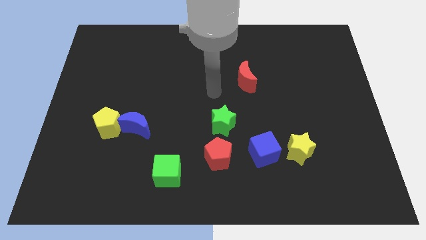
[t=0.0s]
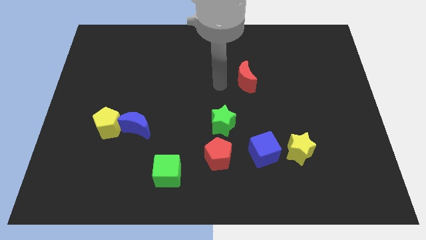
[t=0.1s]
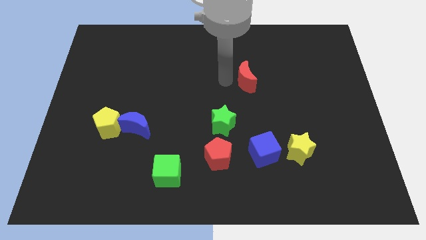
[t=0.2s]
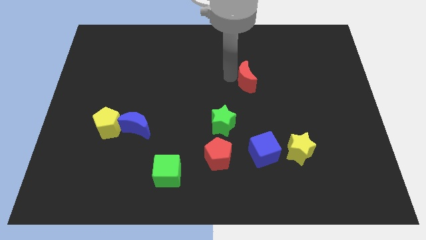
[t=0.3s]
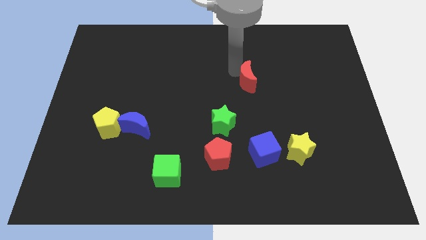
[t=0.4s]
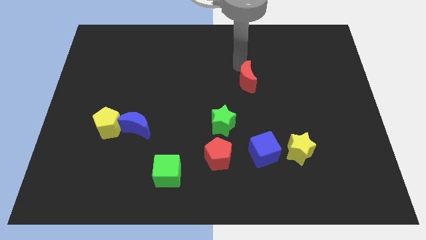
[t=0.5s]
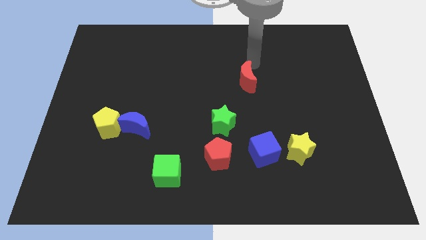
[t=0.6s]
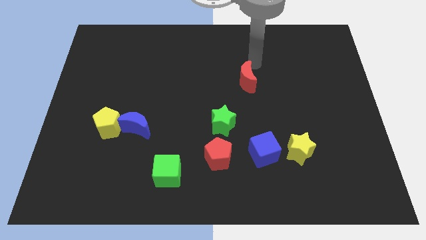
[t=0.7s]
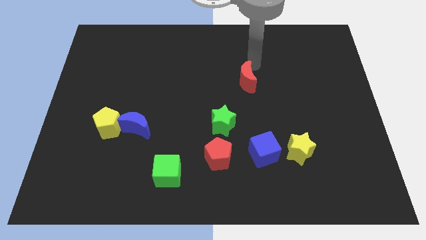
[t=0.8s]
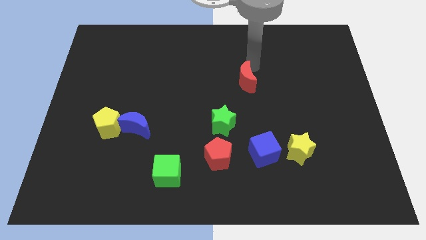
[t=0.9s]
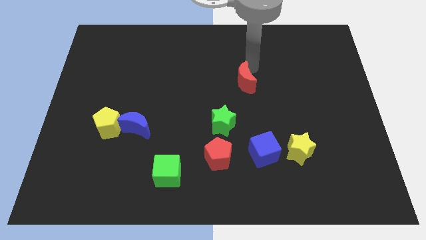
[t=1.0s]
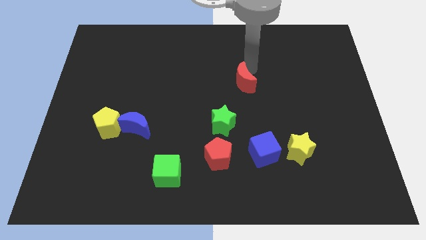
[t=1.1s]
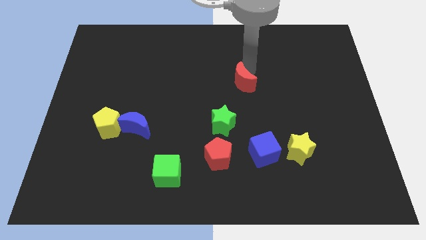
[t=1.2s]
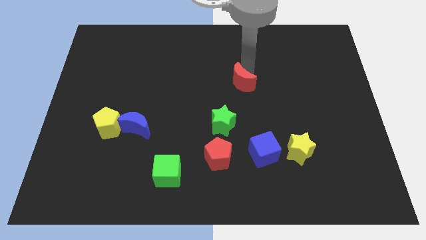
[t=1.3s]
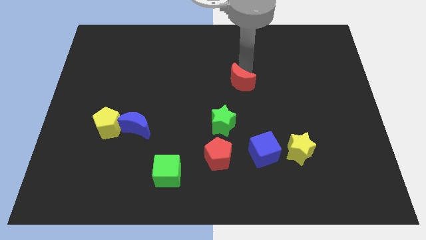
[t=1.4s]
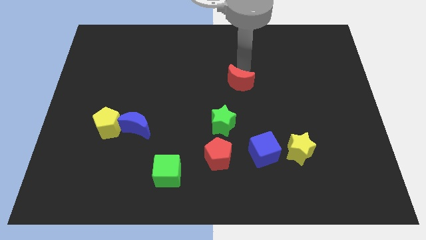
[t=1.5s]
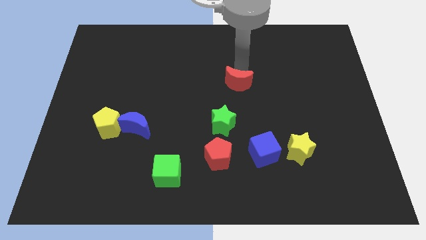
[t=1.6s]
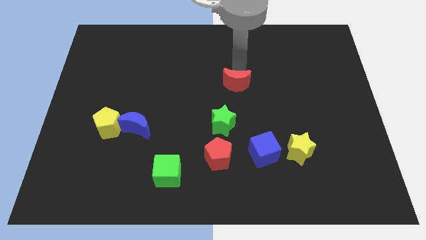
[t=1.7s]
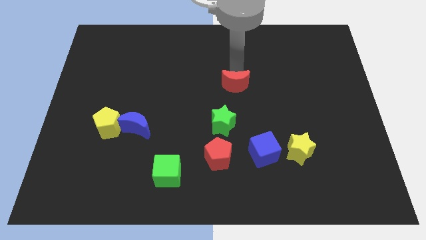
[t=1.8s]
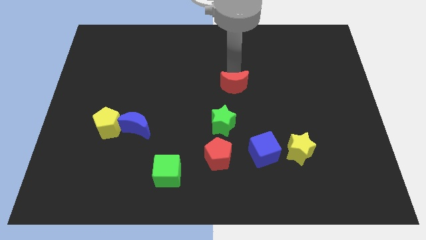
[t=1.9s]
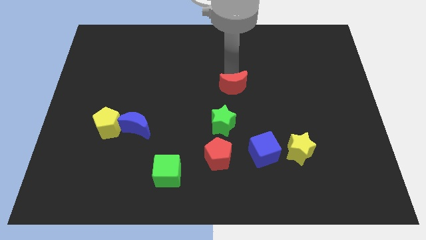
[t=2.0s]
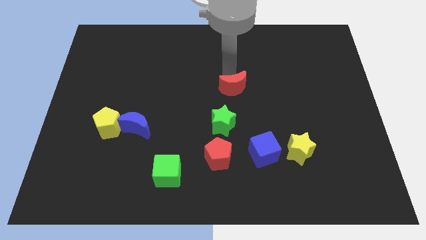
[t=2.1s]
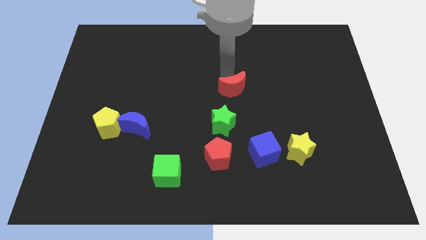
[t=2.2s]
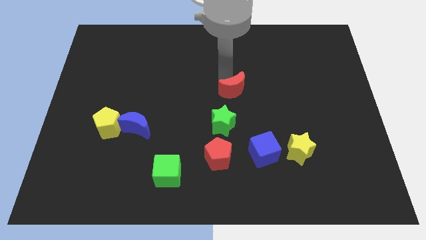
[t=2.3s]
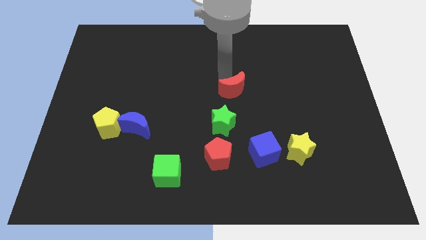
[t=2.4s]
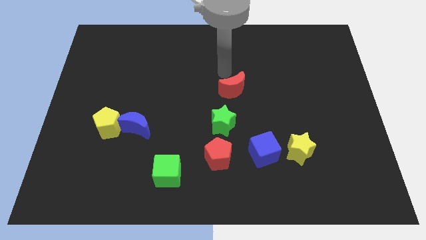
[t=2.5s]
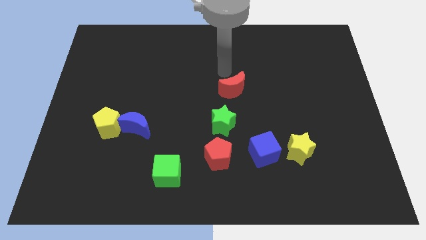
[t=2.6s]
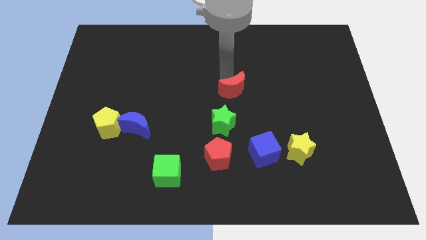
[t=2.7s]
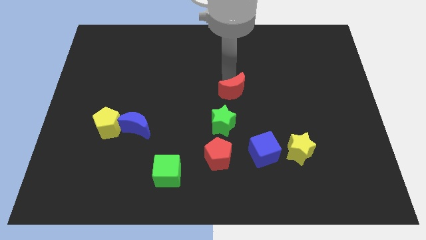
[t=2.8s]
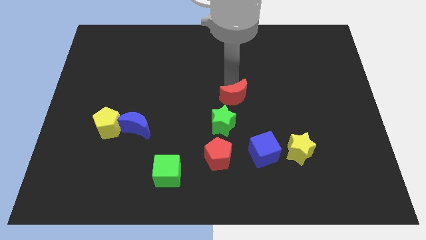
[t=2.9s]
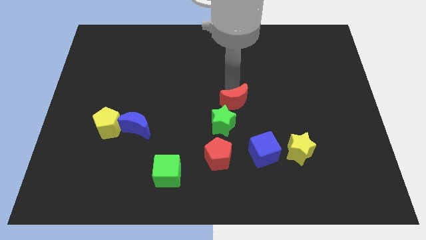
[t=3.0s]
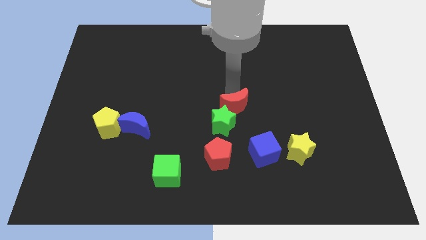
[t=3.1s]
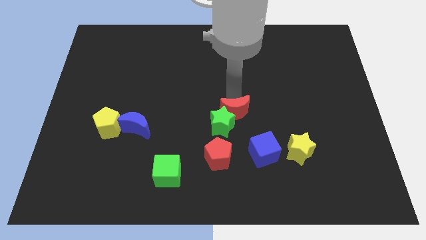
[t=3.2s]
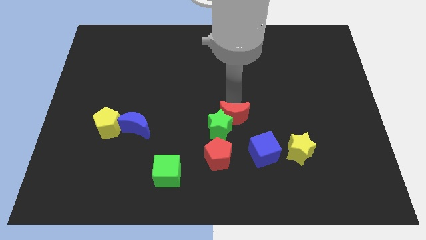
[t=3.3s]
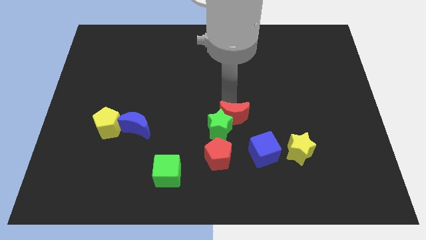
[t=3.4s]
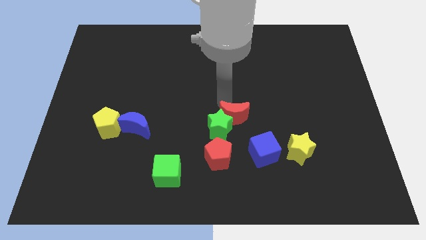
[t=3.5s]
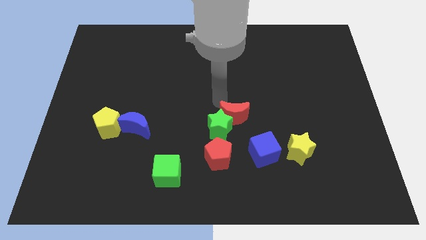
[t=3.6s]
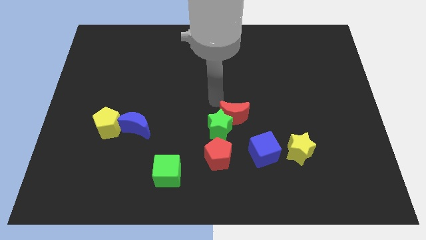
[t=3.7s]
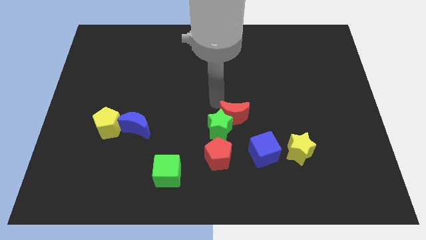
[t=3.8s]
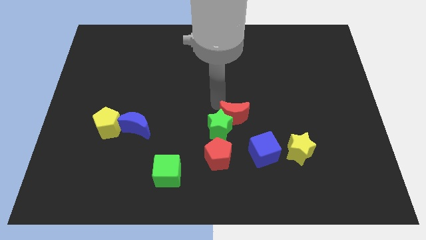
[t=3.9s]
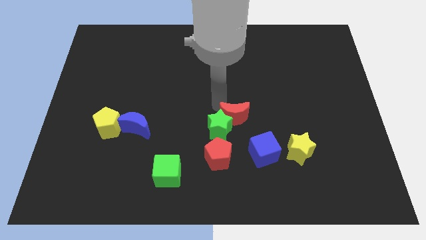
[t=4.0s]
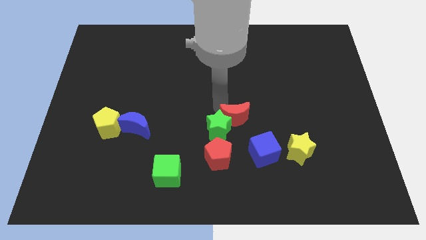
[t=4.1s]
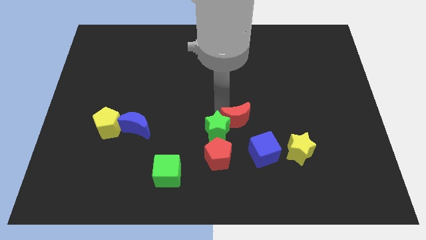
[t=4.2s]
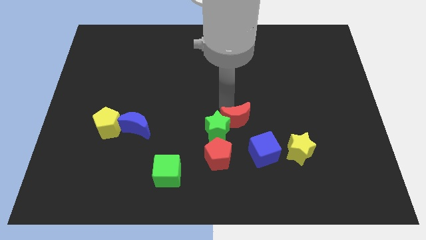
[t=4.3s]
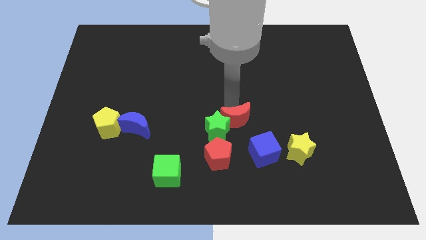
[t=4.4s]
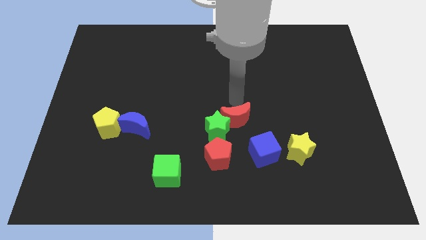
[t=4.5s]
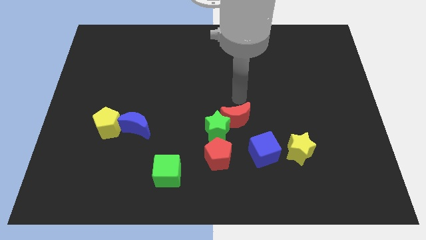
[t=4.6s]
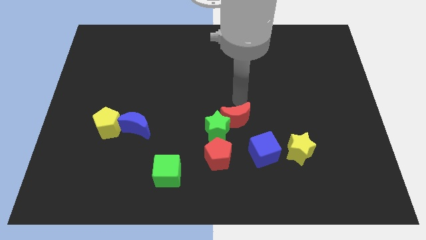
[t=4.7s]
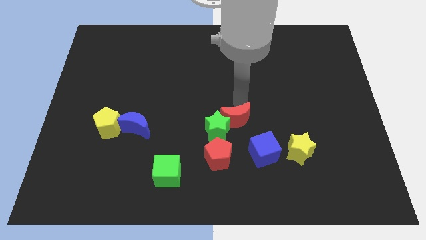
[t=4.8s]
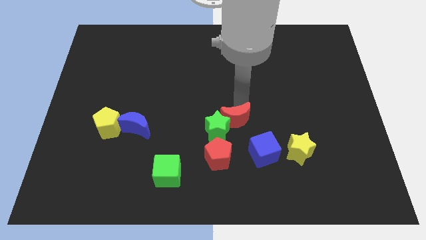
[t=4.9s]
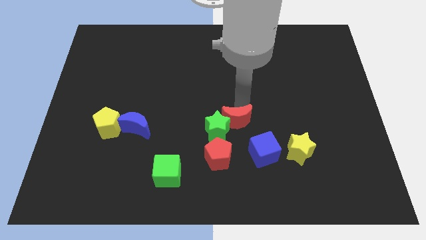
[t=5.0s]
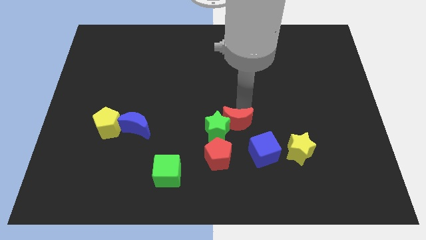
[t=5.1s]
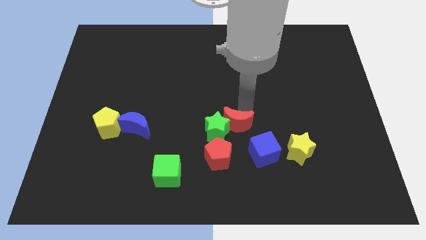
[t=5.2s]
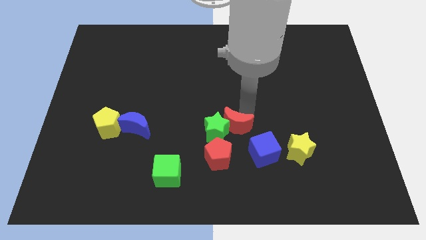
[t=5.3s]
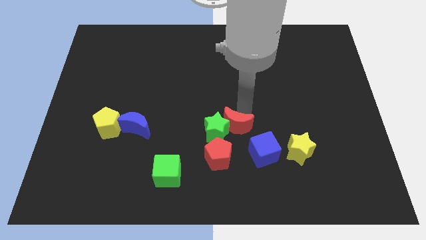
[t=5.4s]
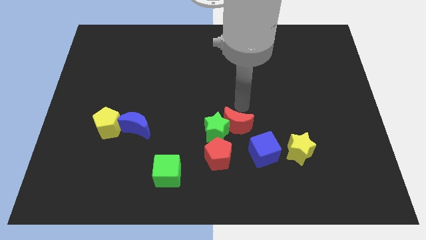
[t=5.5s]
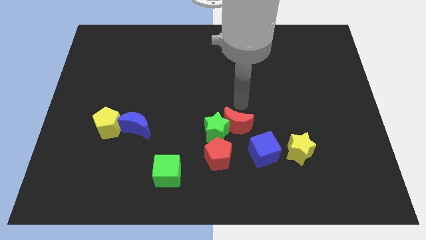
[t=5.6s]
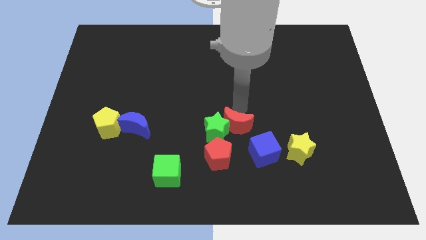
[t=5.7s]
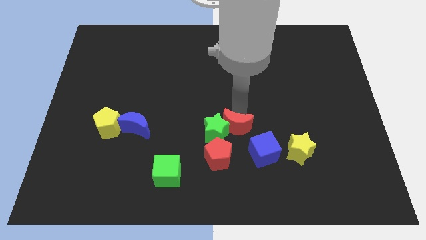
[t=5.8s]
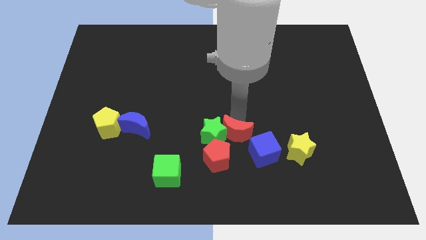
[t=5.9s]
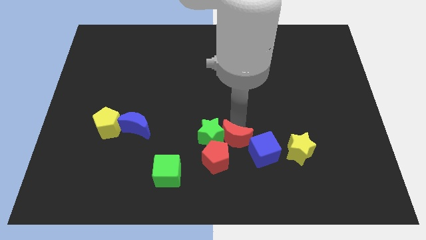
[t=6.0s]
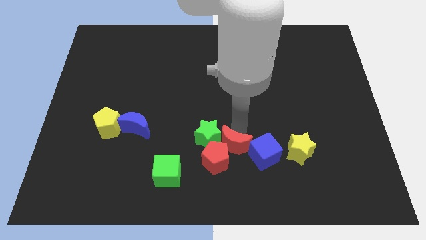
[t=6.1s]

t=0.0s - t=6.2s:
push the red moon next to the red pentagon

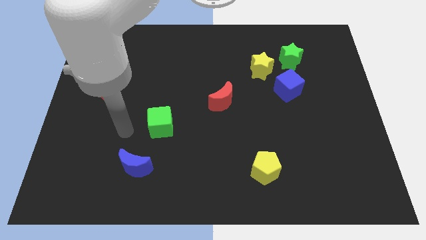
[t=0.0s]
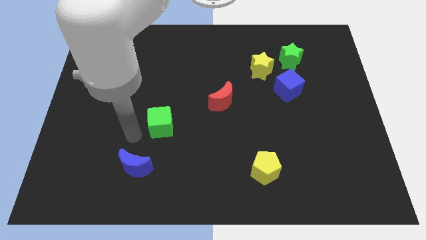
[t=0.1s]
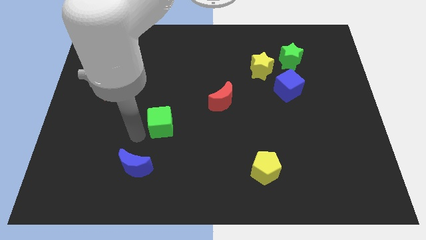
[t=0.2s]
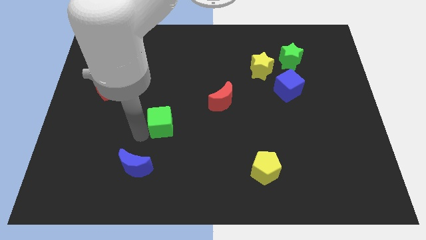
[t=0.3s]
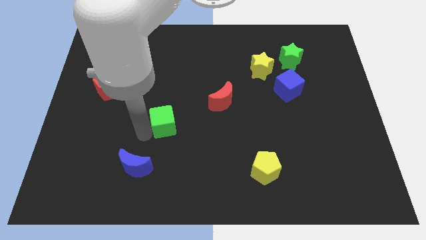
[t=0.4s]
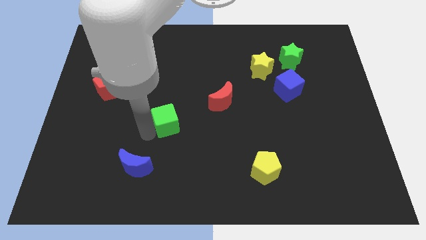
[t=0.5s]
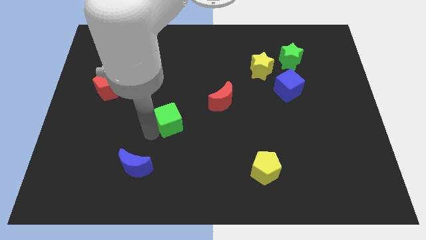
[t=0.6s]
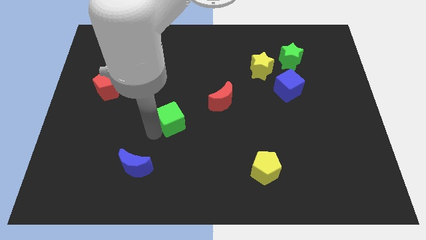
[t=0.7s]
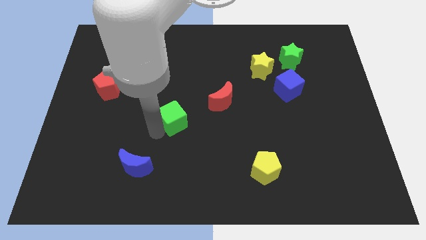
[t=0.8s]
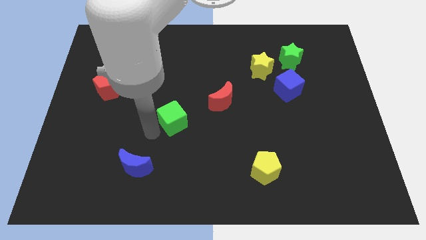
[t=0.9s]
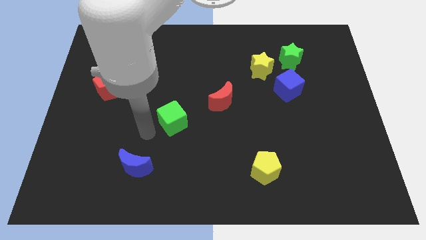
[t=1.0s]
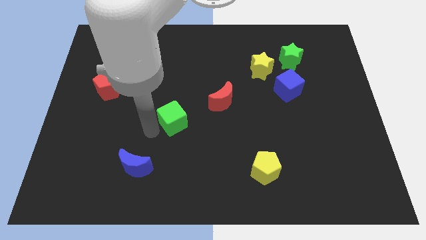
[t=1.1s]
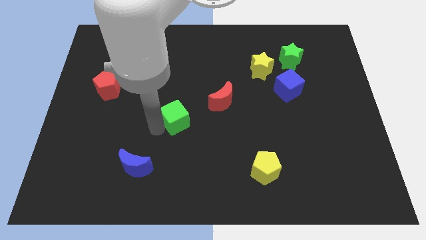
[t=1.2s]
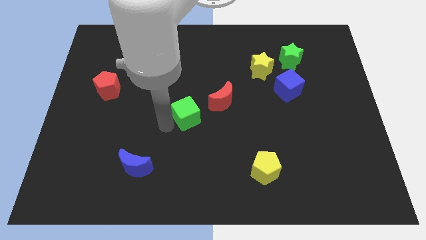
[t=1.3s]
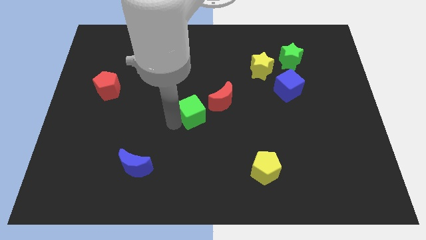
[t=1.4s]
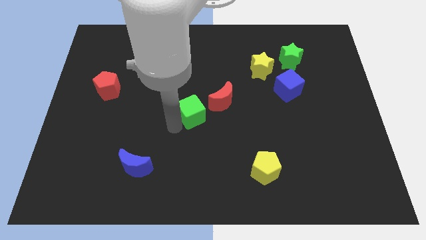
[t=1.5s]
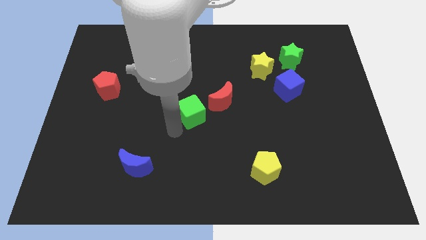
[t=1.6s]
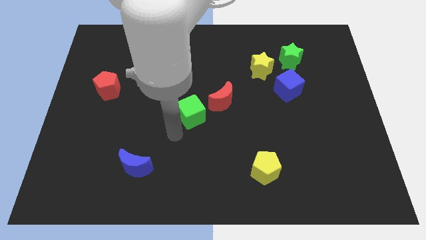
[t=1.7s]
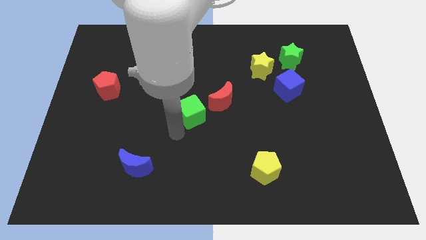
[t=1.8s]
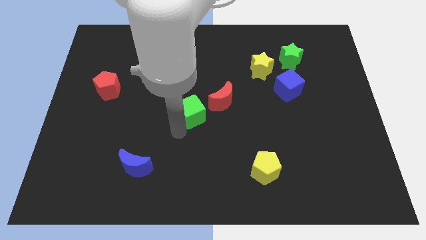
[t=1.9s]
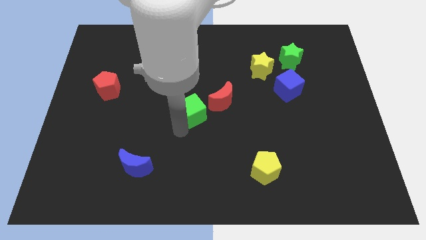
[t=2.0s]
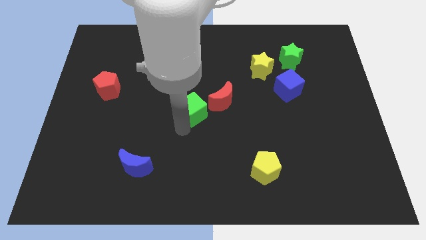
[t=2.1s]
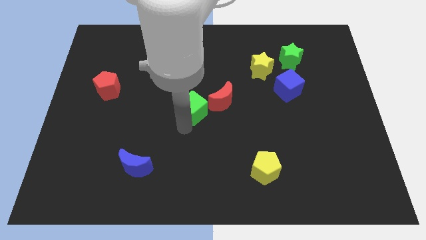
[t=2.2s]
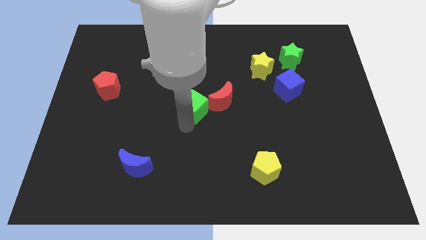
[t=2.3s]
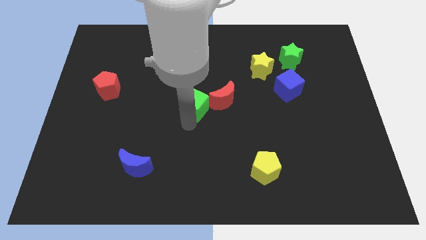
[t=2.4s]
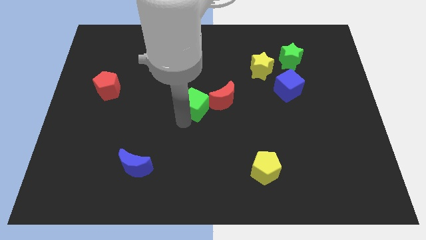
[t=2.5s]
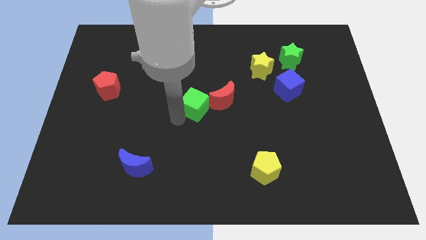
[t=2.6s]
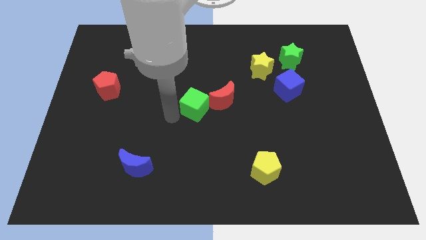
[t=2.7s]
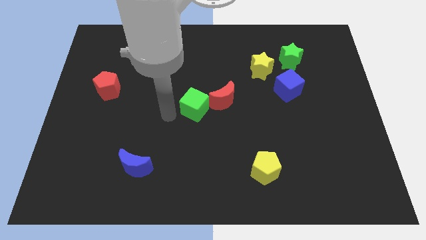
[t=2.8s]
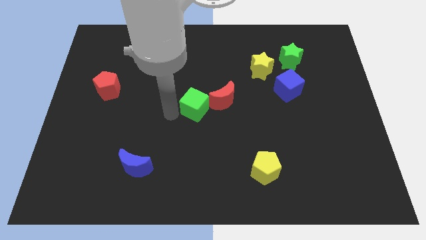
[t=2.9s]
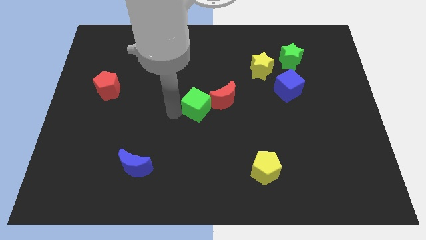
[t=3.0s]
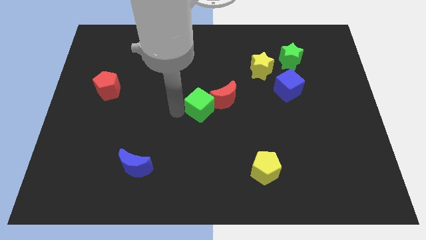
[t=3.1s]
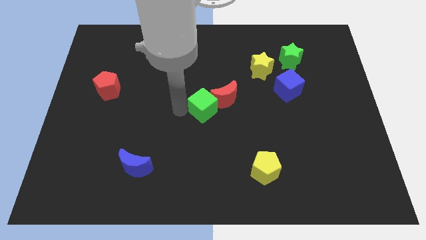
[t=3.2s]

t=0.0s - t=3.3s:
push the green cube close to the red moon
